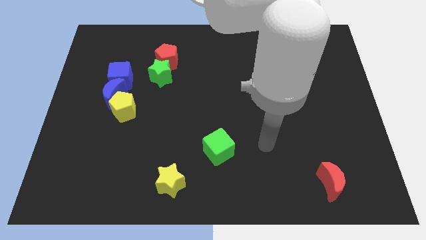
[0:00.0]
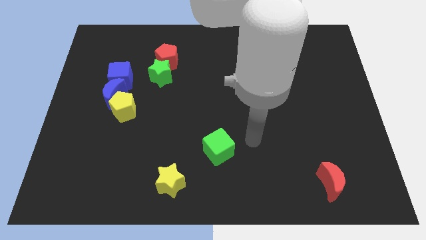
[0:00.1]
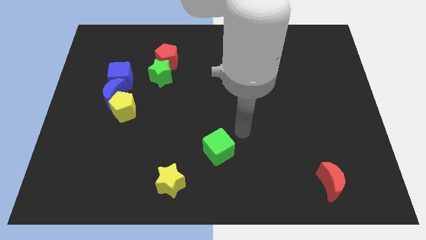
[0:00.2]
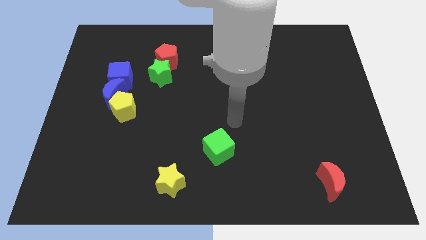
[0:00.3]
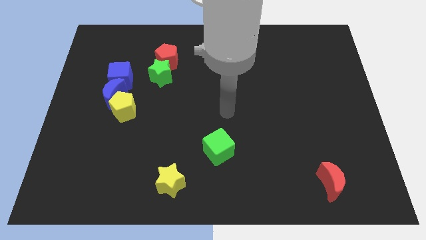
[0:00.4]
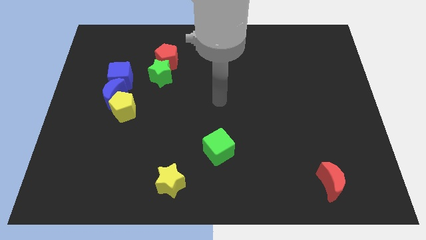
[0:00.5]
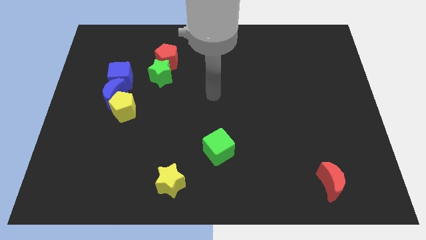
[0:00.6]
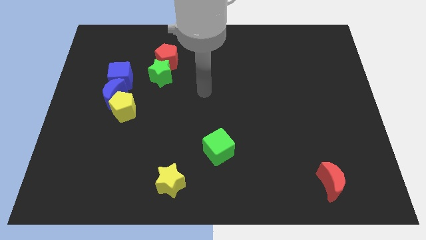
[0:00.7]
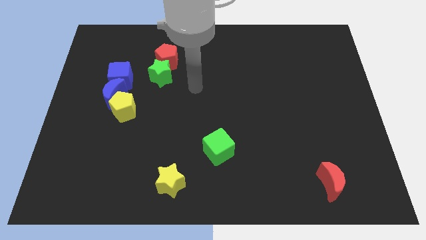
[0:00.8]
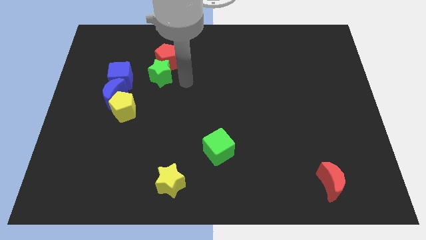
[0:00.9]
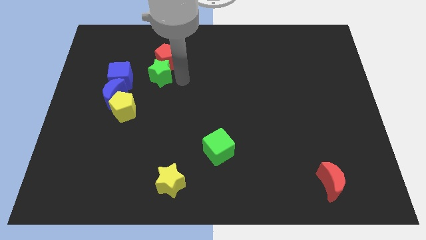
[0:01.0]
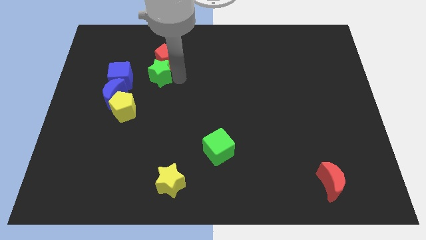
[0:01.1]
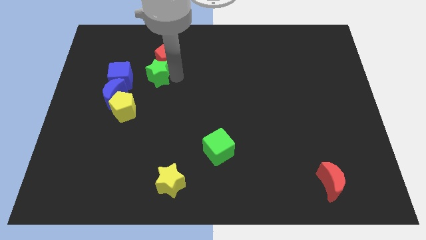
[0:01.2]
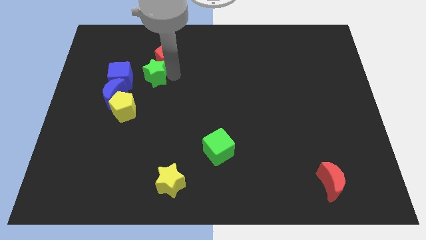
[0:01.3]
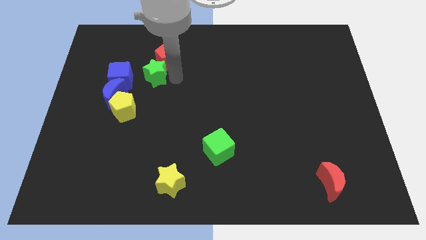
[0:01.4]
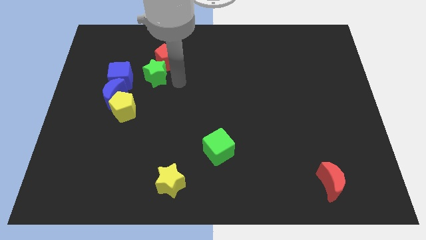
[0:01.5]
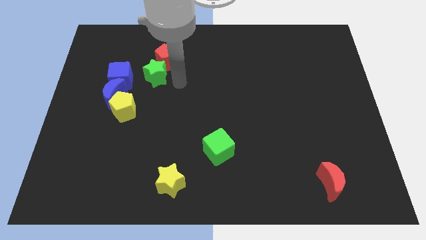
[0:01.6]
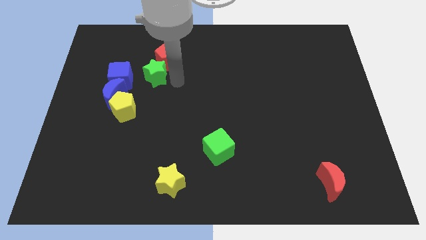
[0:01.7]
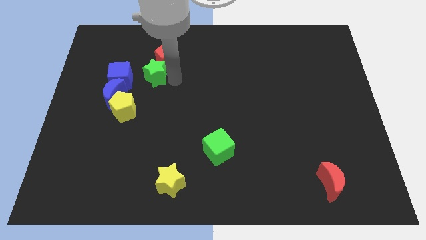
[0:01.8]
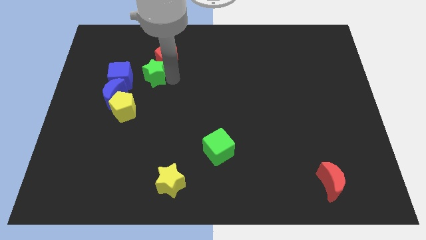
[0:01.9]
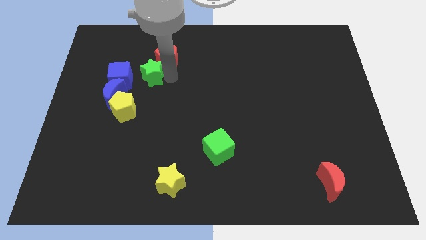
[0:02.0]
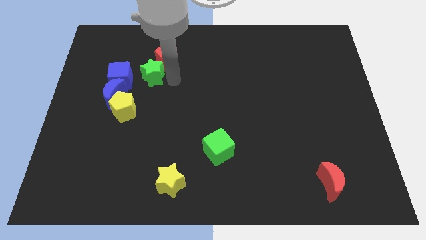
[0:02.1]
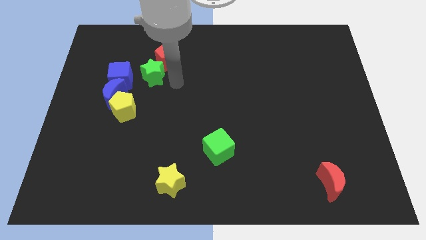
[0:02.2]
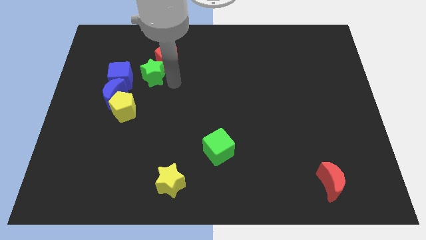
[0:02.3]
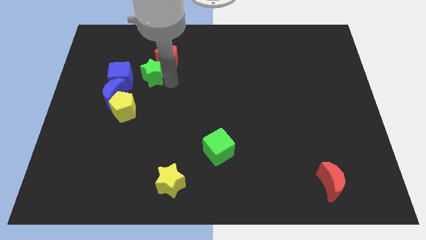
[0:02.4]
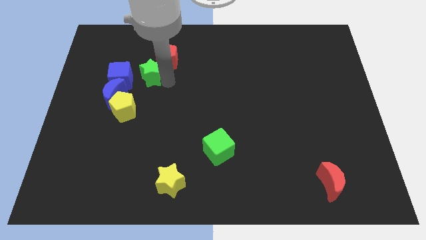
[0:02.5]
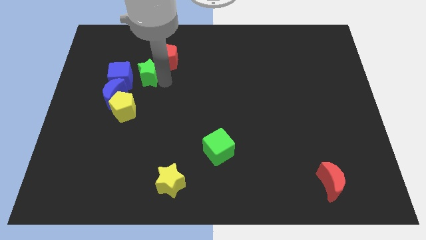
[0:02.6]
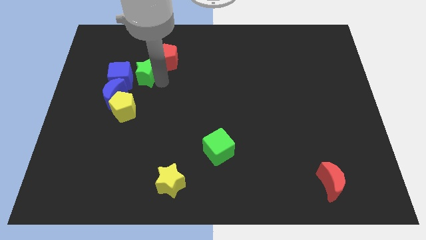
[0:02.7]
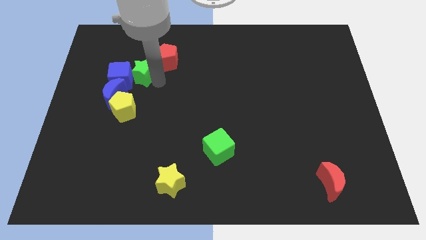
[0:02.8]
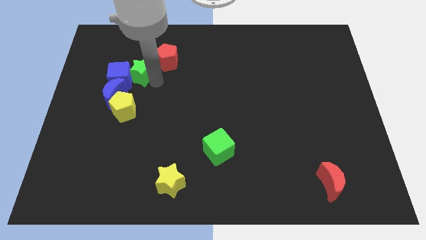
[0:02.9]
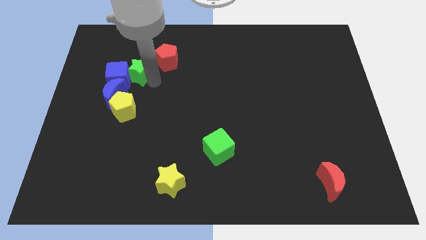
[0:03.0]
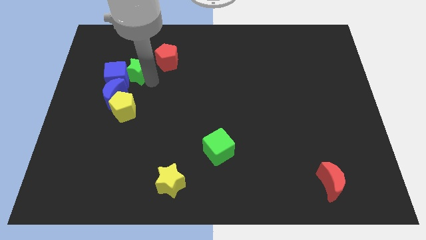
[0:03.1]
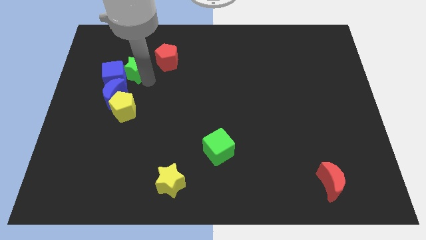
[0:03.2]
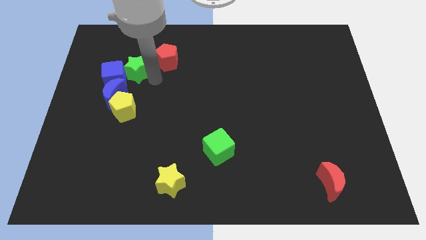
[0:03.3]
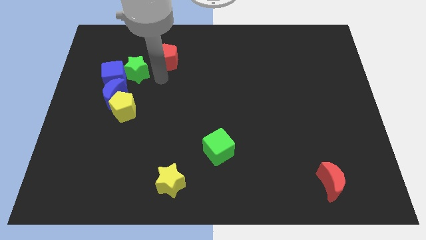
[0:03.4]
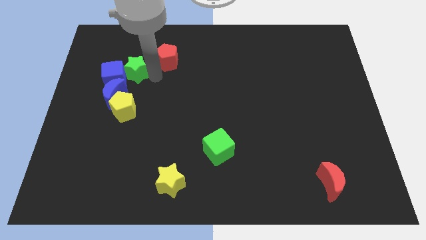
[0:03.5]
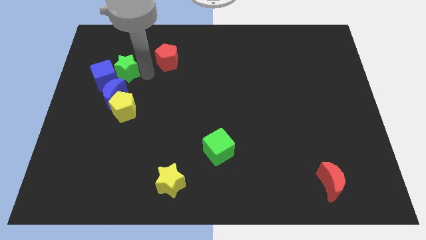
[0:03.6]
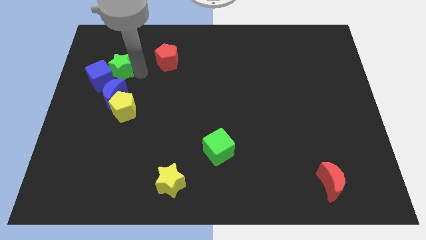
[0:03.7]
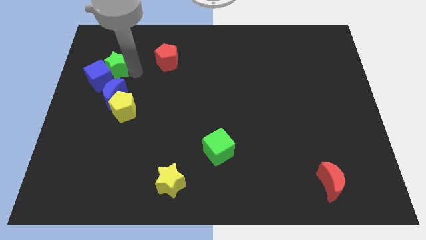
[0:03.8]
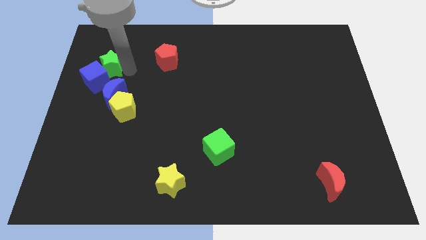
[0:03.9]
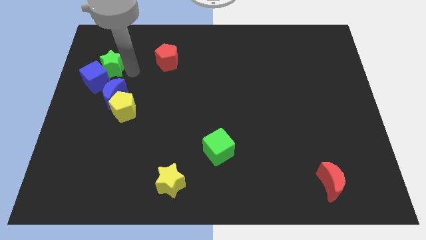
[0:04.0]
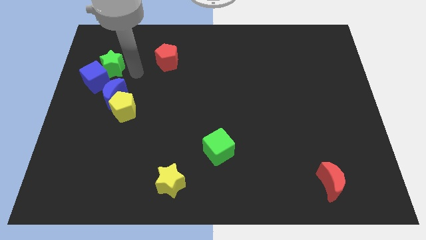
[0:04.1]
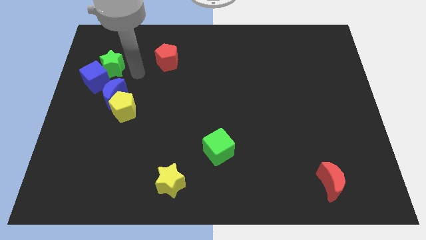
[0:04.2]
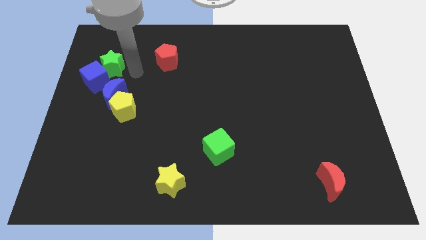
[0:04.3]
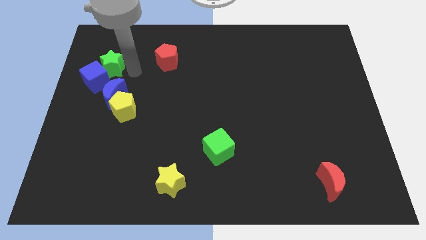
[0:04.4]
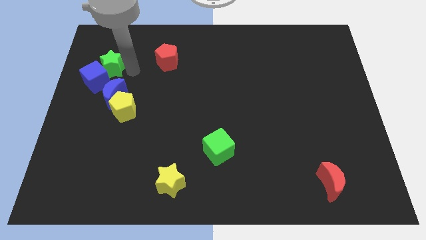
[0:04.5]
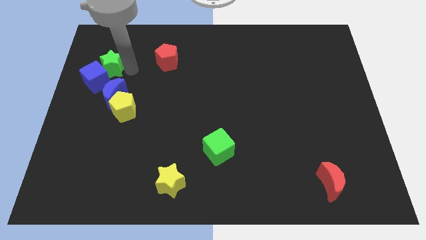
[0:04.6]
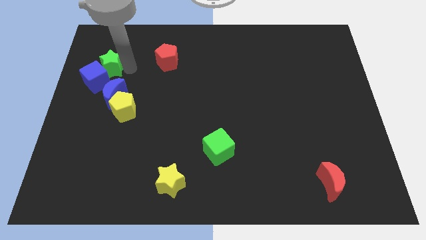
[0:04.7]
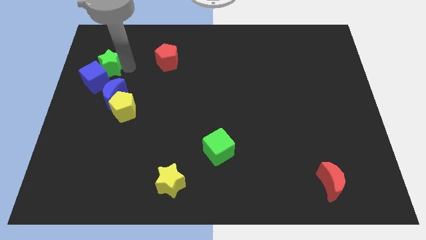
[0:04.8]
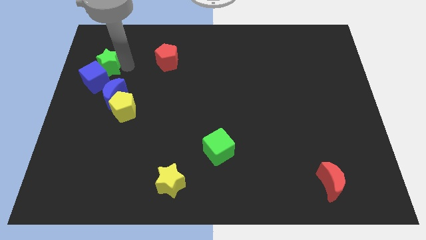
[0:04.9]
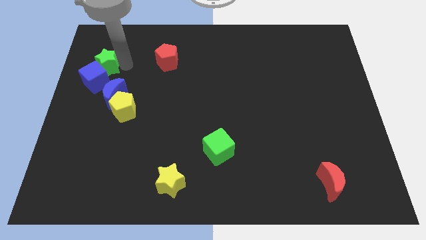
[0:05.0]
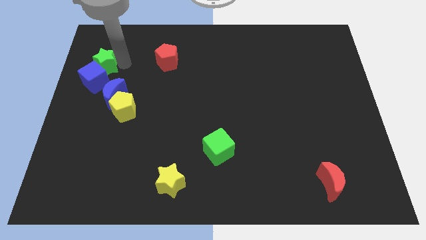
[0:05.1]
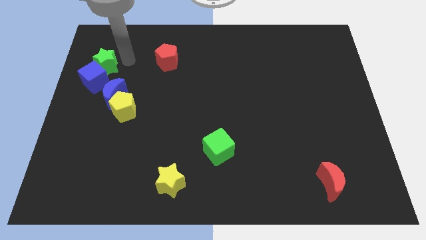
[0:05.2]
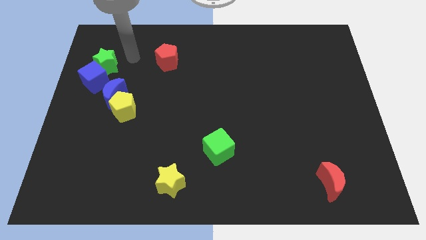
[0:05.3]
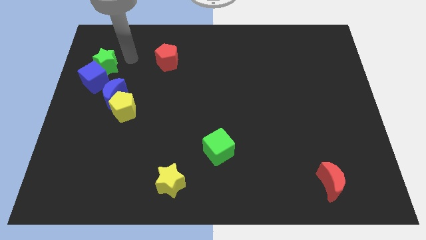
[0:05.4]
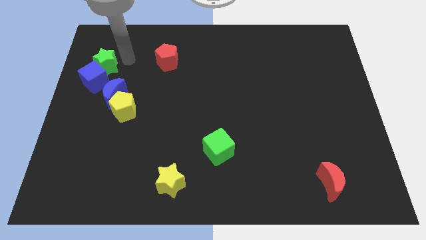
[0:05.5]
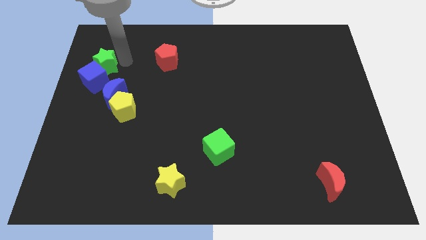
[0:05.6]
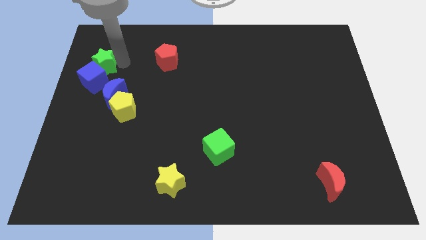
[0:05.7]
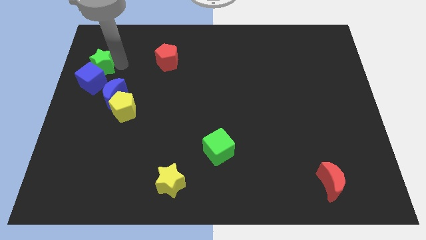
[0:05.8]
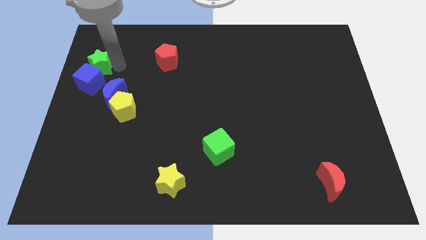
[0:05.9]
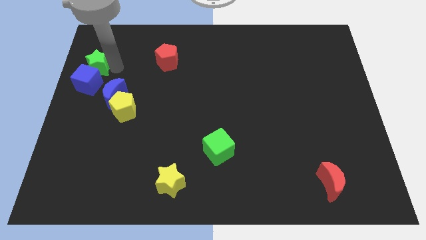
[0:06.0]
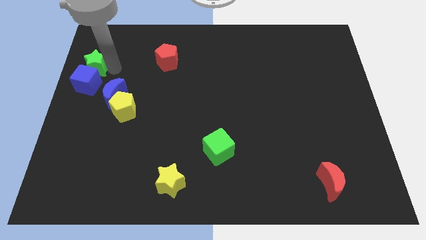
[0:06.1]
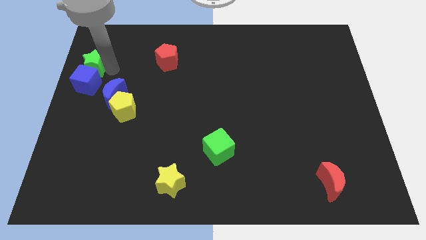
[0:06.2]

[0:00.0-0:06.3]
move the green star to the center left
